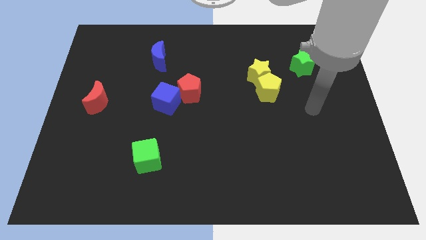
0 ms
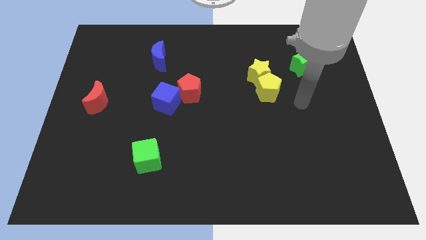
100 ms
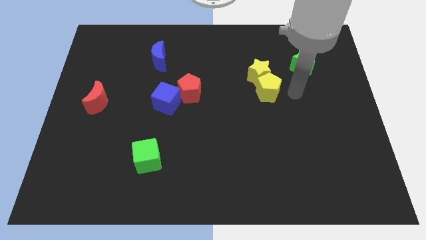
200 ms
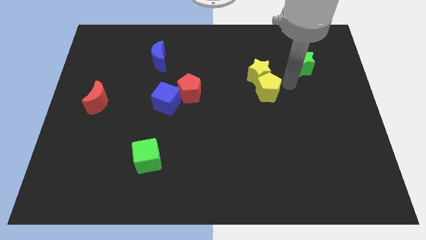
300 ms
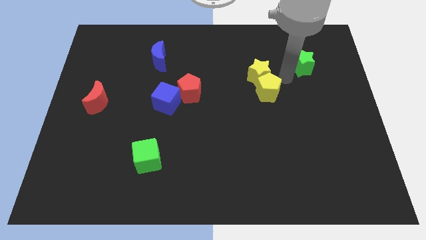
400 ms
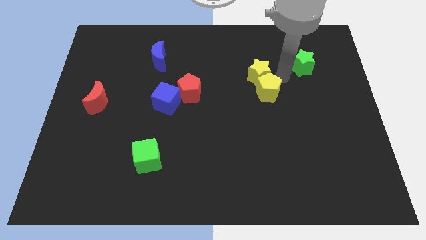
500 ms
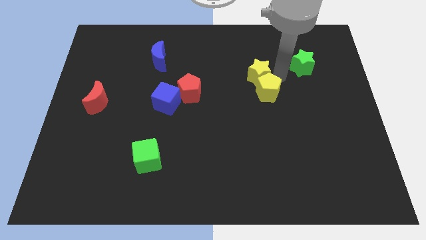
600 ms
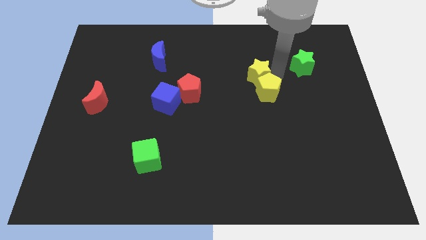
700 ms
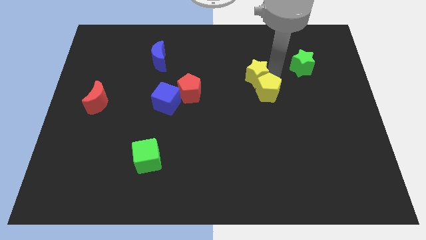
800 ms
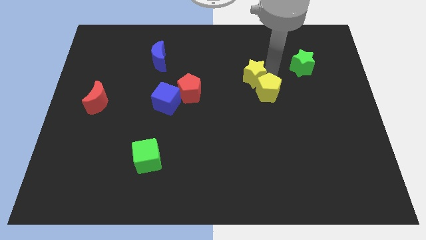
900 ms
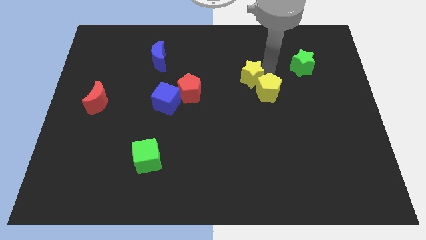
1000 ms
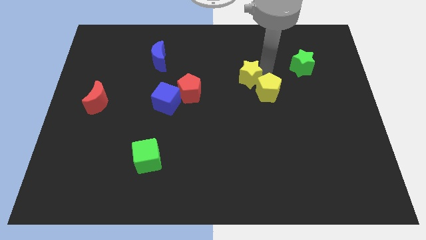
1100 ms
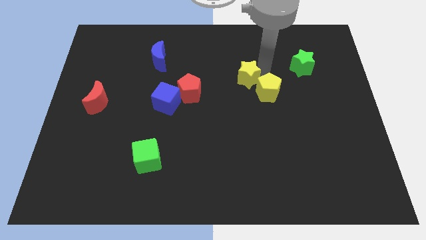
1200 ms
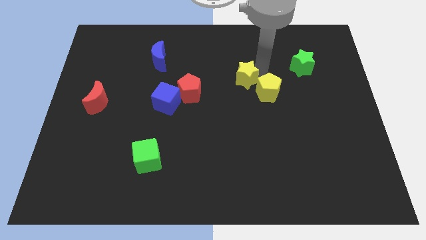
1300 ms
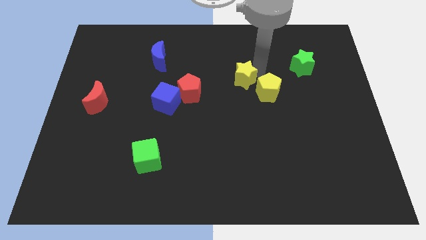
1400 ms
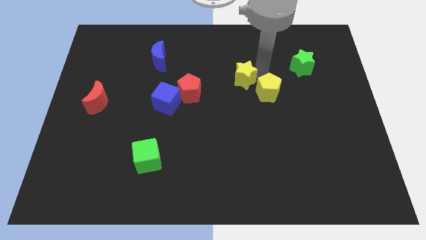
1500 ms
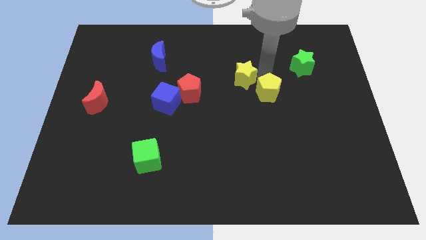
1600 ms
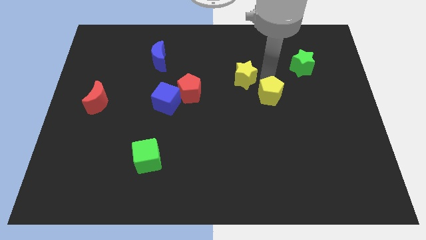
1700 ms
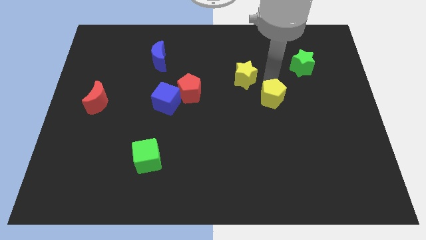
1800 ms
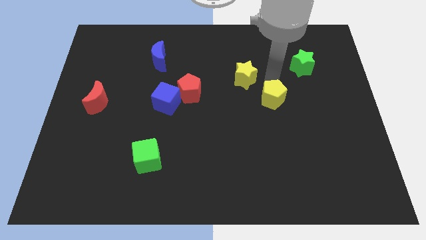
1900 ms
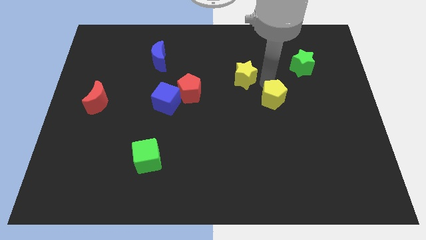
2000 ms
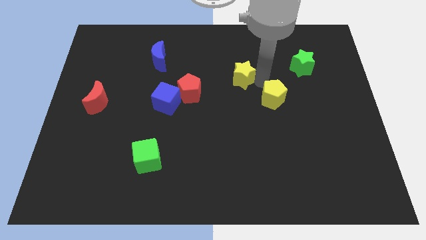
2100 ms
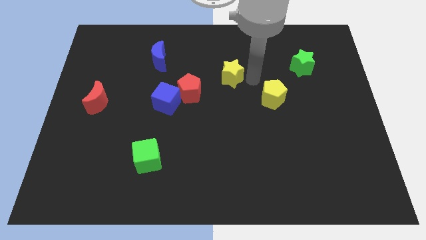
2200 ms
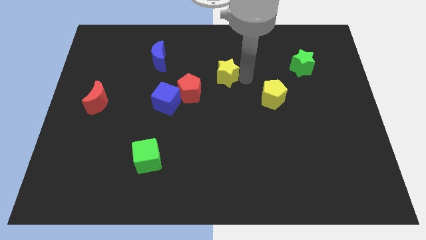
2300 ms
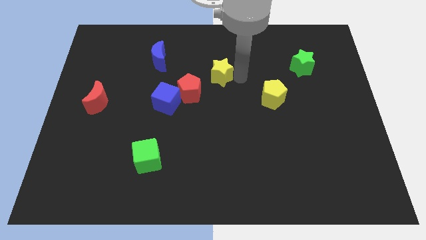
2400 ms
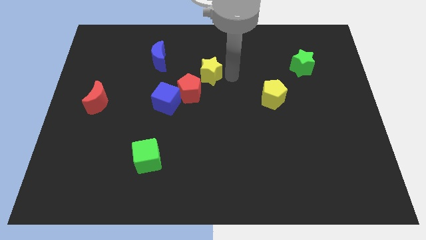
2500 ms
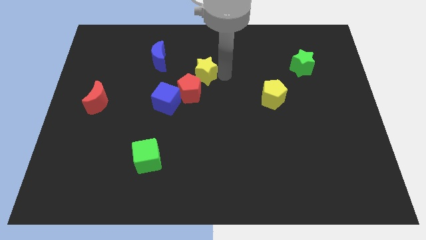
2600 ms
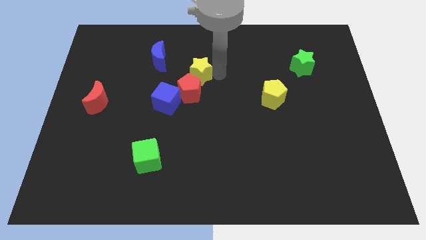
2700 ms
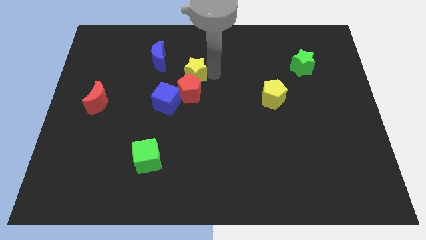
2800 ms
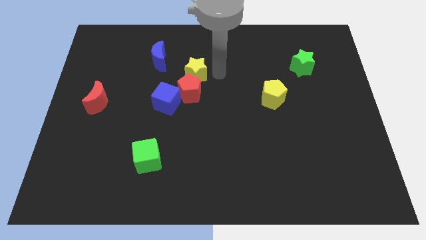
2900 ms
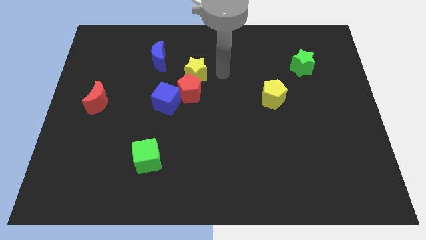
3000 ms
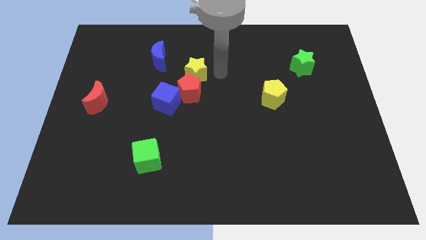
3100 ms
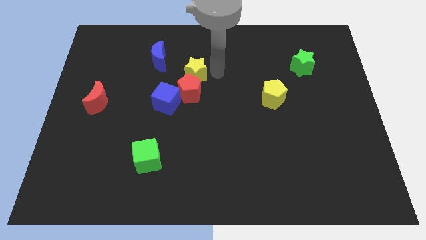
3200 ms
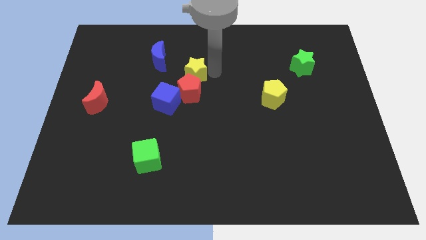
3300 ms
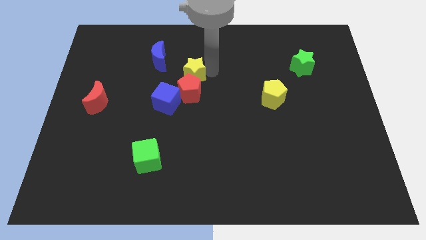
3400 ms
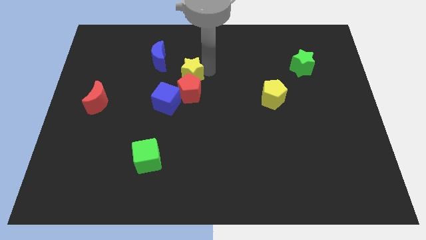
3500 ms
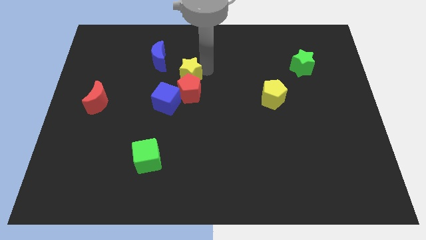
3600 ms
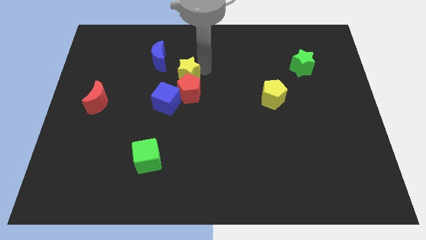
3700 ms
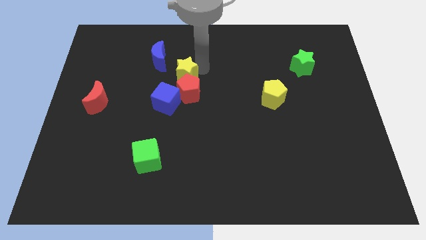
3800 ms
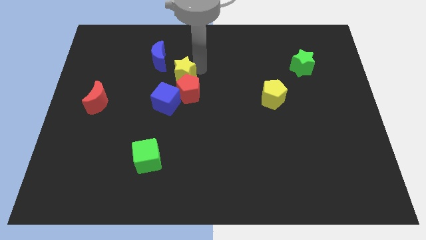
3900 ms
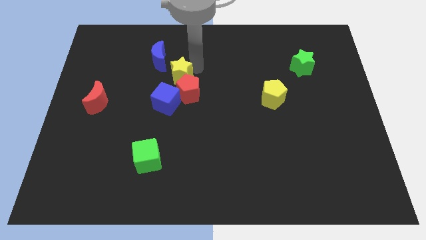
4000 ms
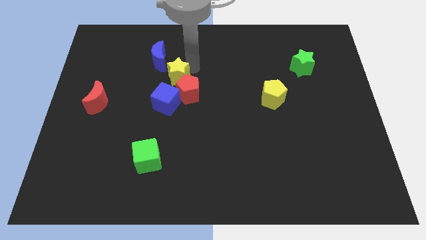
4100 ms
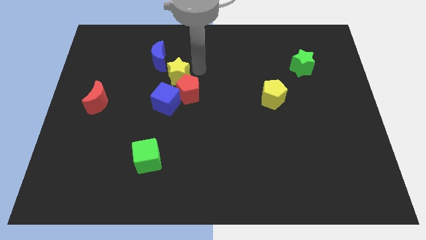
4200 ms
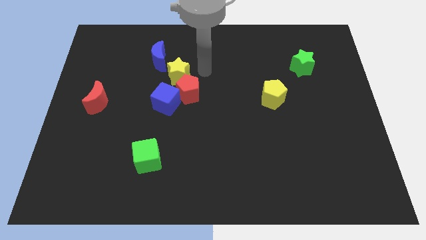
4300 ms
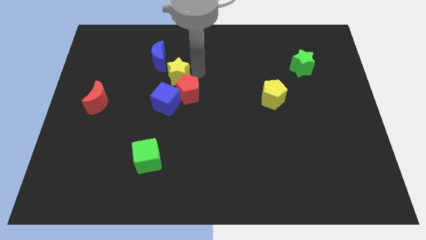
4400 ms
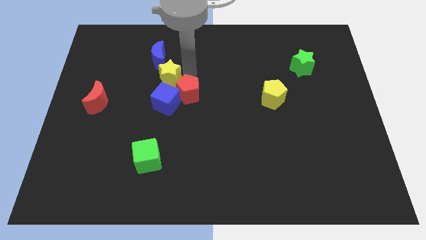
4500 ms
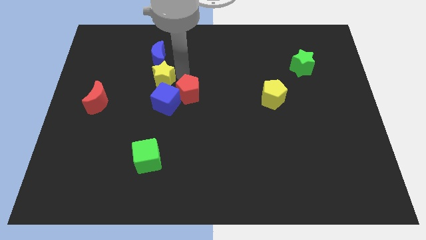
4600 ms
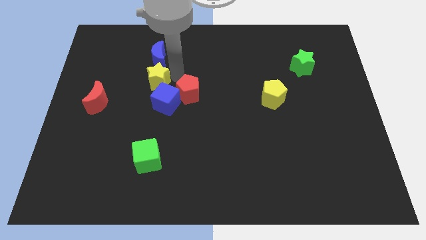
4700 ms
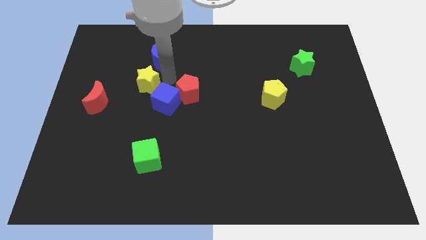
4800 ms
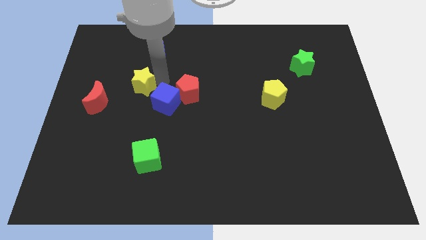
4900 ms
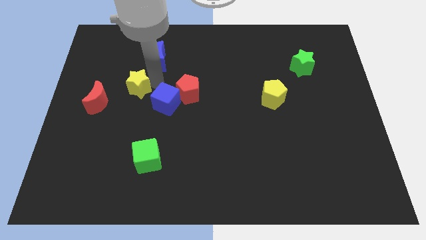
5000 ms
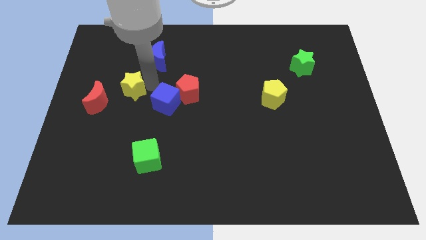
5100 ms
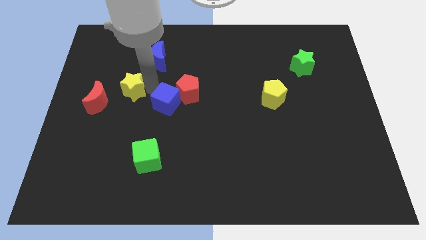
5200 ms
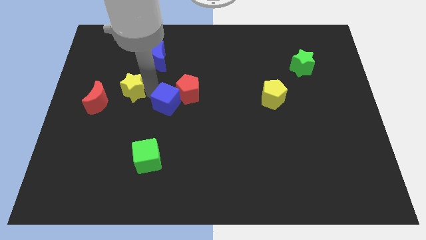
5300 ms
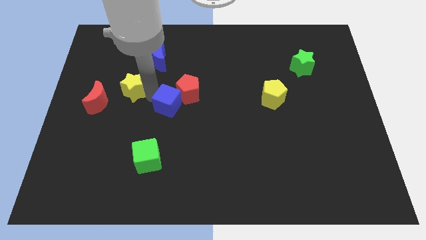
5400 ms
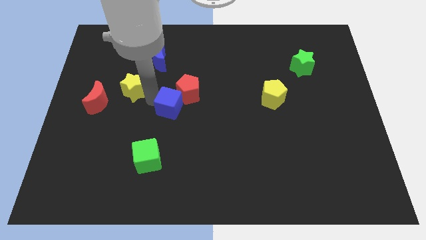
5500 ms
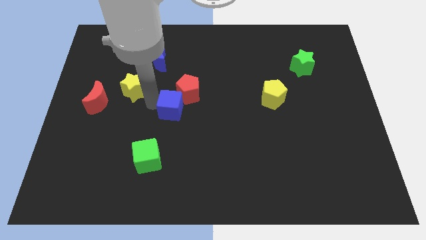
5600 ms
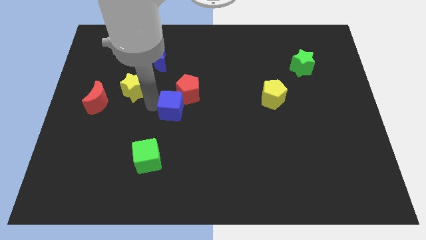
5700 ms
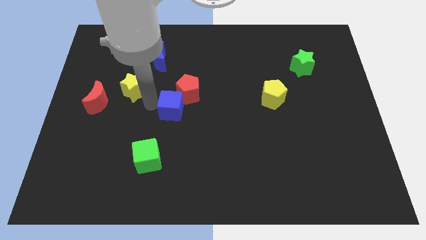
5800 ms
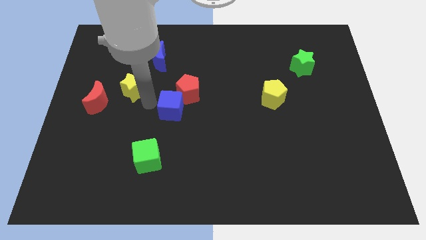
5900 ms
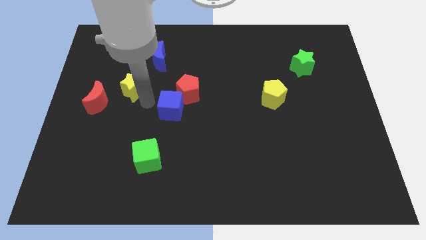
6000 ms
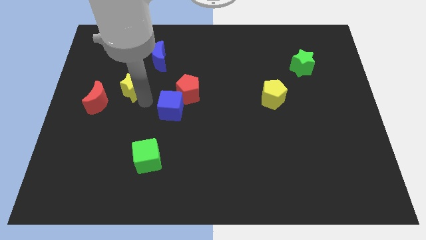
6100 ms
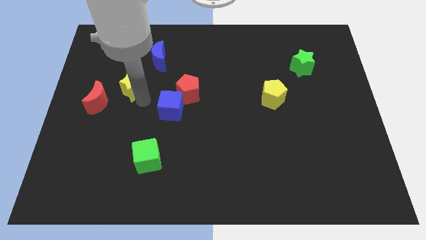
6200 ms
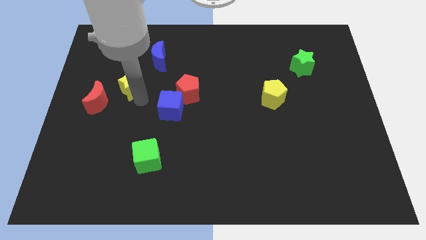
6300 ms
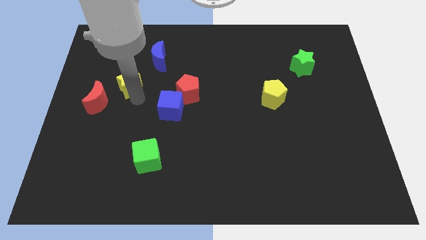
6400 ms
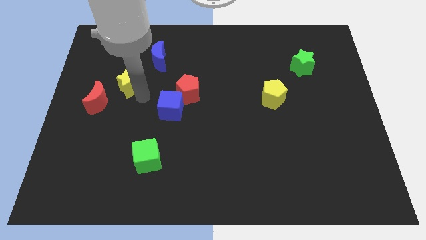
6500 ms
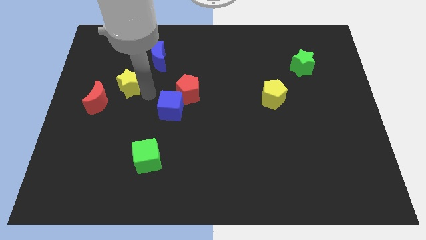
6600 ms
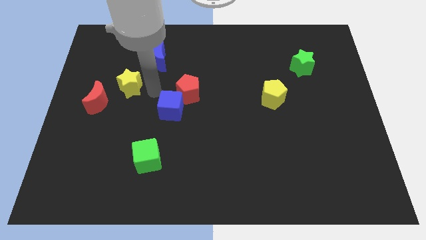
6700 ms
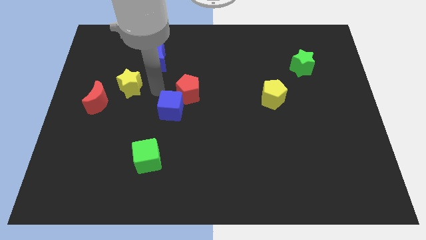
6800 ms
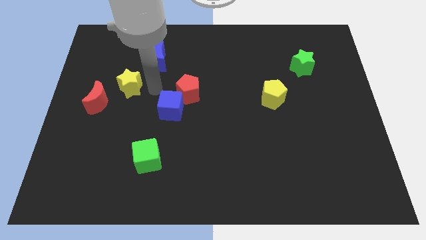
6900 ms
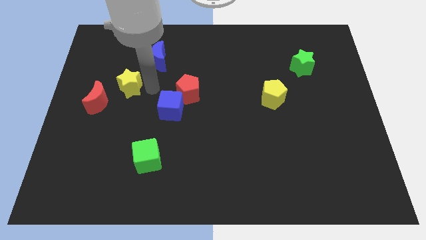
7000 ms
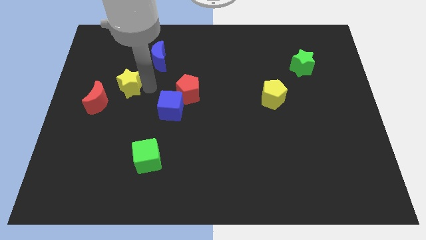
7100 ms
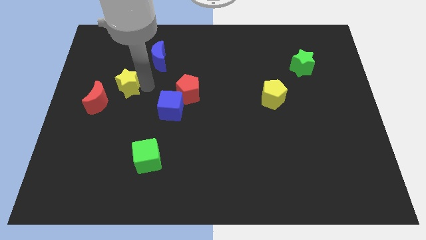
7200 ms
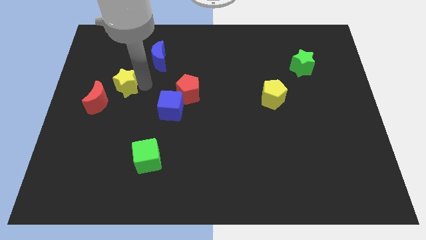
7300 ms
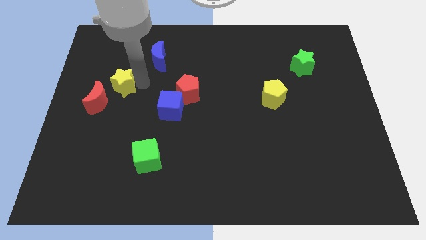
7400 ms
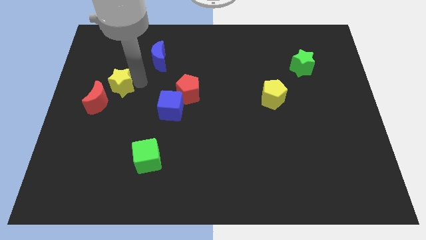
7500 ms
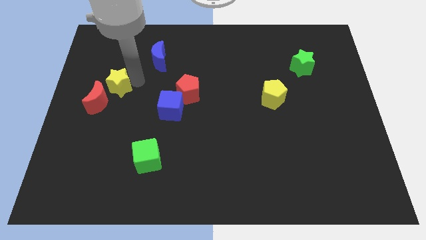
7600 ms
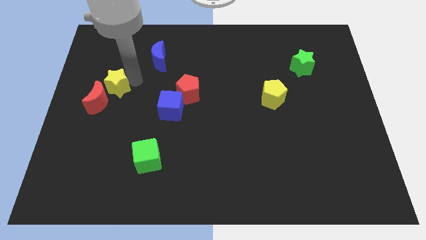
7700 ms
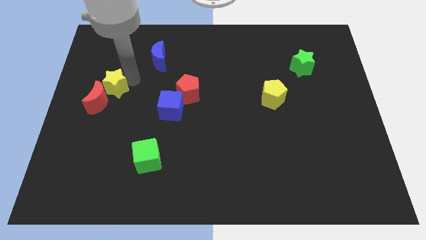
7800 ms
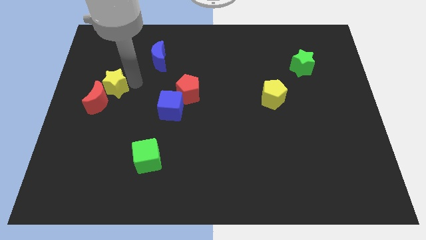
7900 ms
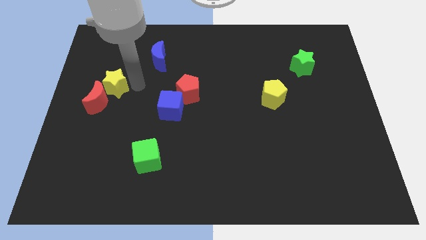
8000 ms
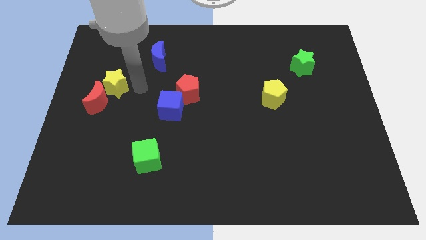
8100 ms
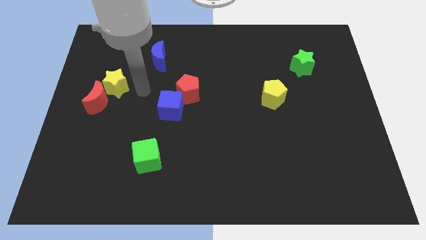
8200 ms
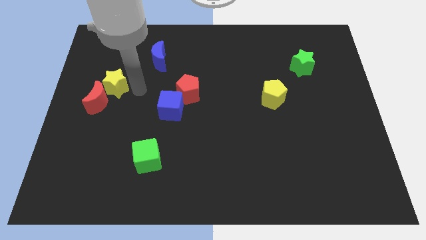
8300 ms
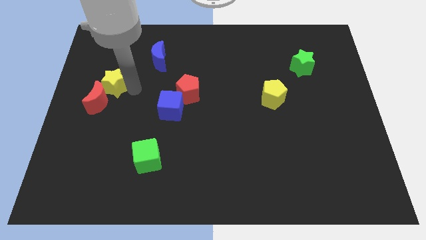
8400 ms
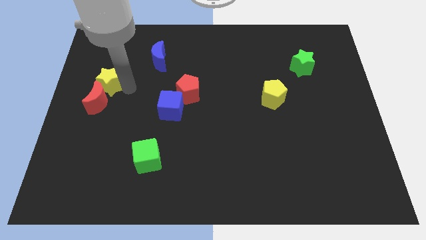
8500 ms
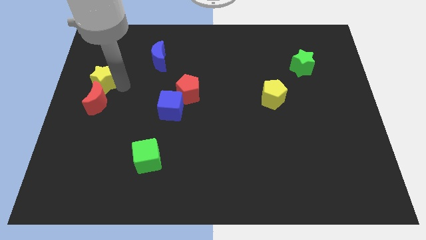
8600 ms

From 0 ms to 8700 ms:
put the yellow star to the center left
